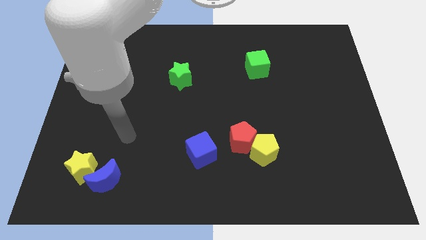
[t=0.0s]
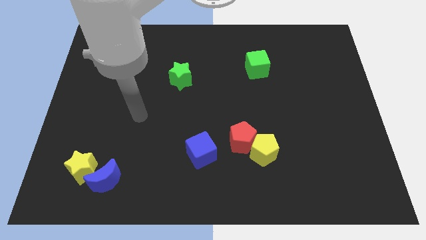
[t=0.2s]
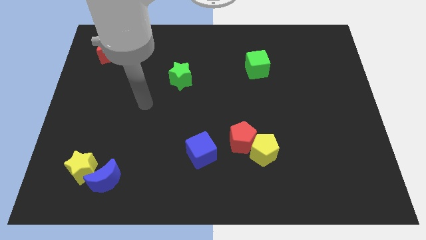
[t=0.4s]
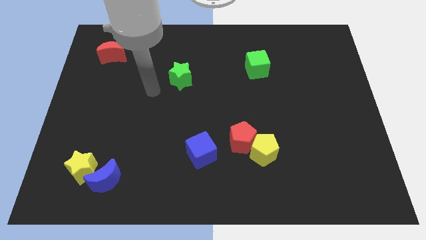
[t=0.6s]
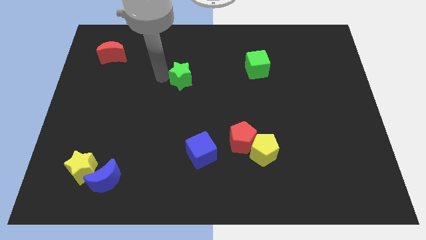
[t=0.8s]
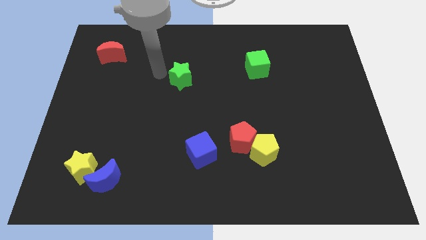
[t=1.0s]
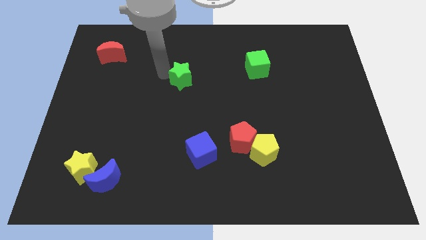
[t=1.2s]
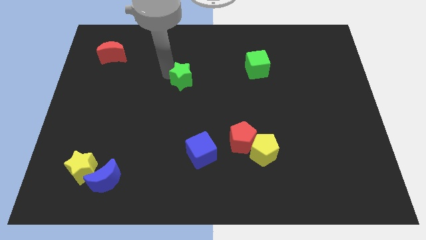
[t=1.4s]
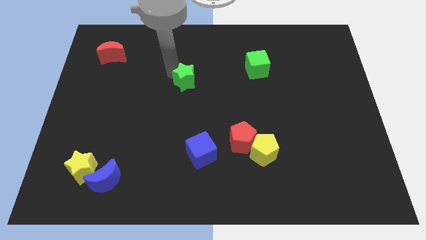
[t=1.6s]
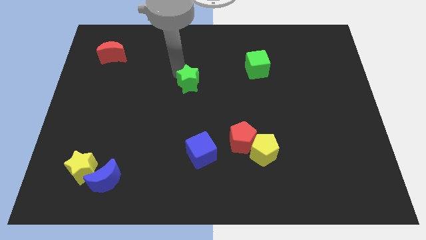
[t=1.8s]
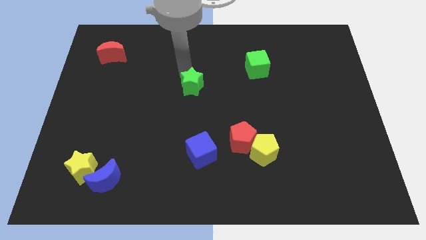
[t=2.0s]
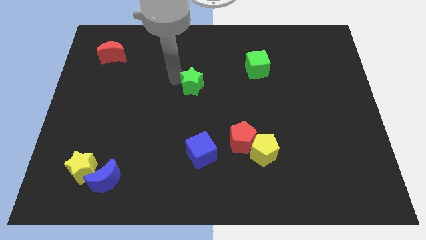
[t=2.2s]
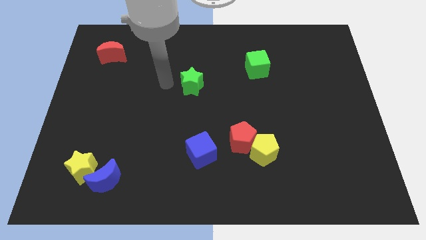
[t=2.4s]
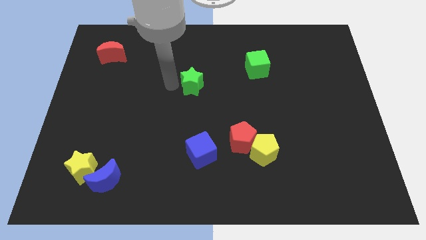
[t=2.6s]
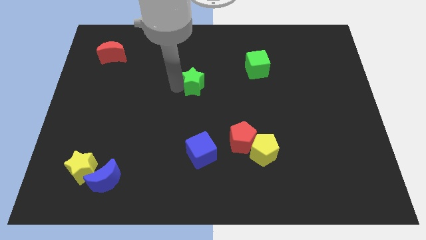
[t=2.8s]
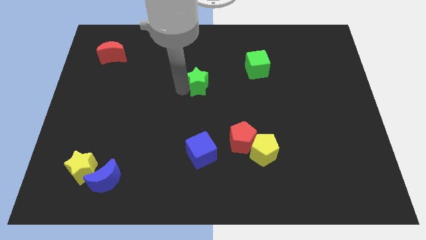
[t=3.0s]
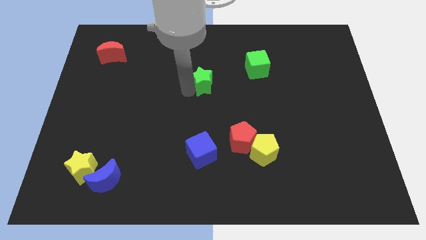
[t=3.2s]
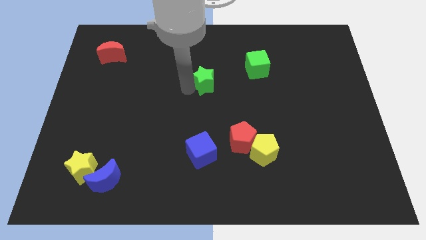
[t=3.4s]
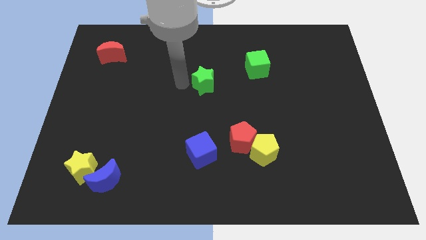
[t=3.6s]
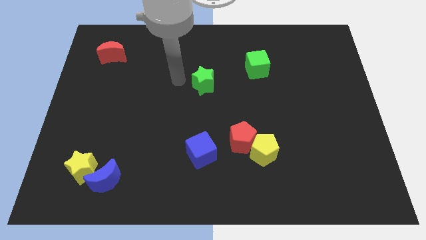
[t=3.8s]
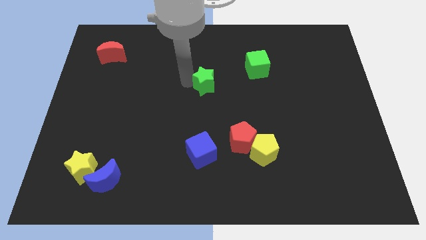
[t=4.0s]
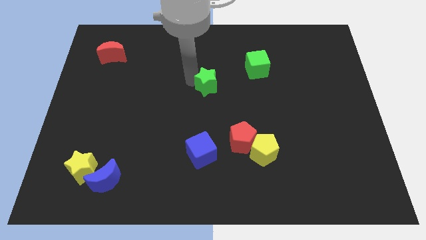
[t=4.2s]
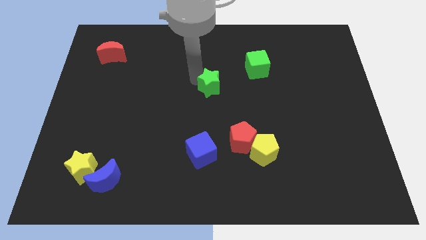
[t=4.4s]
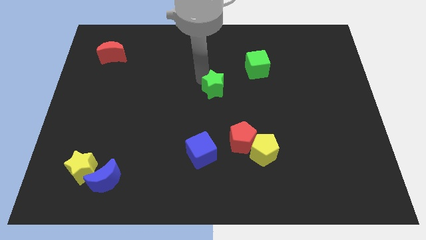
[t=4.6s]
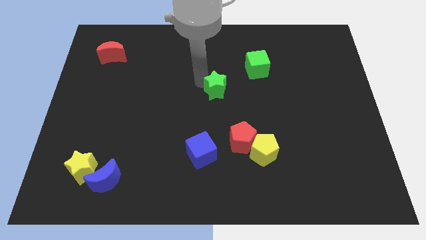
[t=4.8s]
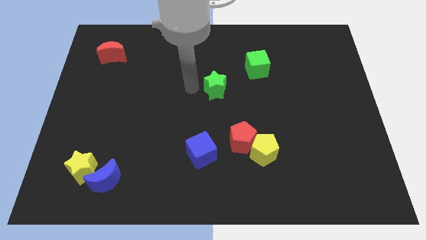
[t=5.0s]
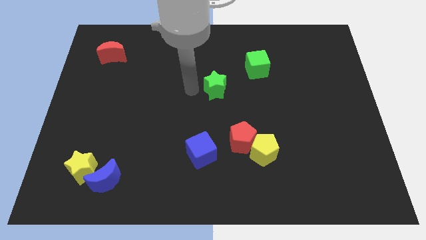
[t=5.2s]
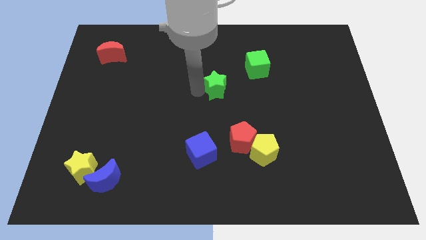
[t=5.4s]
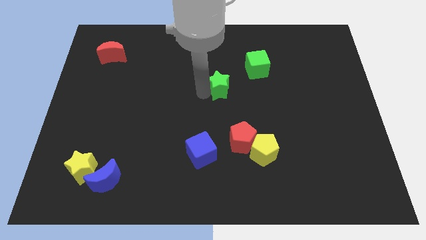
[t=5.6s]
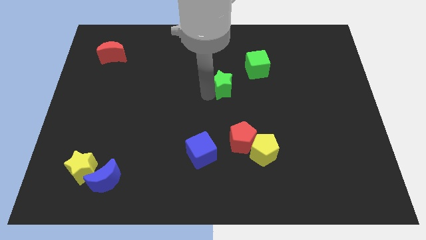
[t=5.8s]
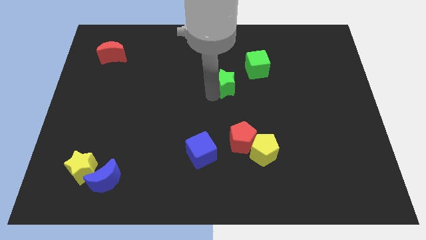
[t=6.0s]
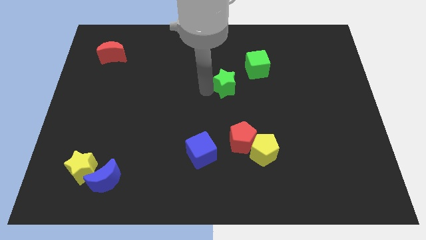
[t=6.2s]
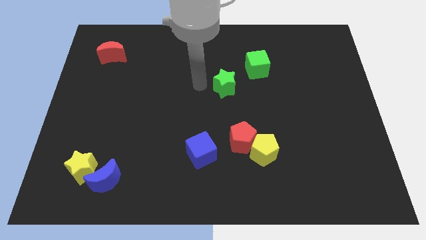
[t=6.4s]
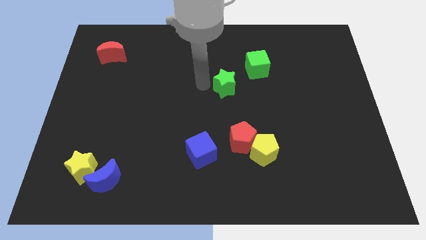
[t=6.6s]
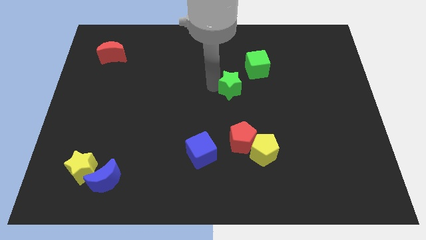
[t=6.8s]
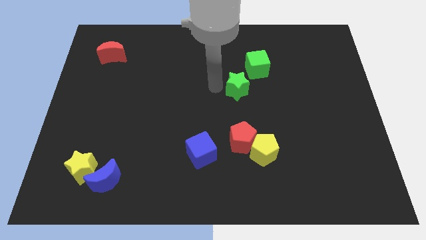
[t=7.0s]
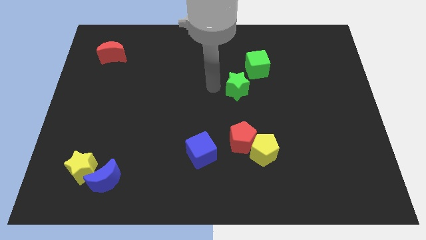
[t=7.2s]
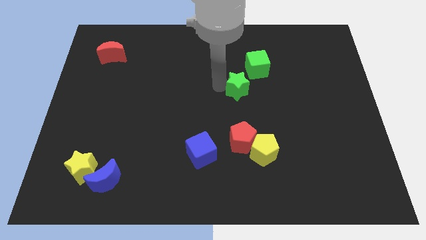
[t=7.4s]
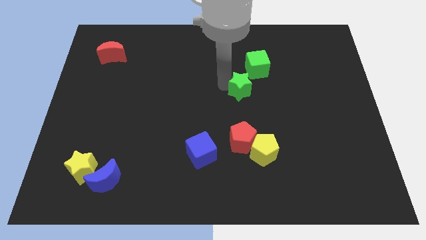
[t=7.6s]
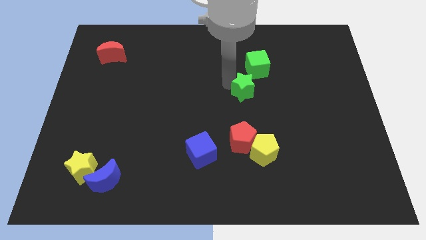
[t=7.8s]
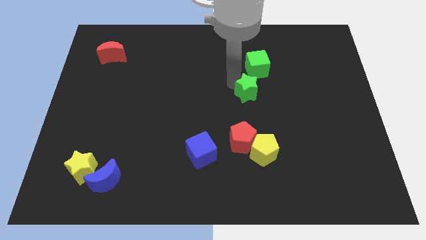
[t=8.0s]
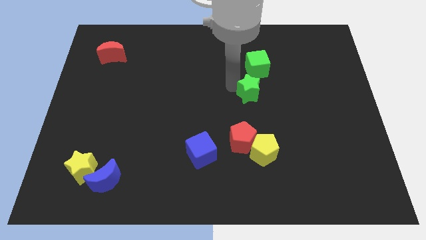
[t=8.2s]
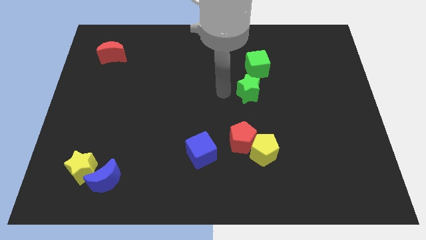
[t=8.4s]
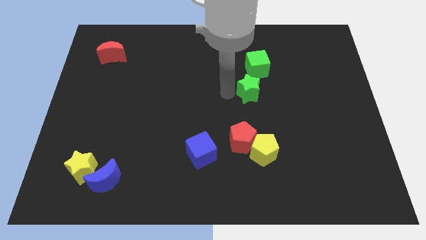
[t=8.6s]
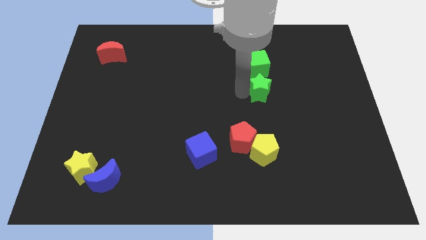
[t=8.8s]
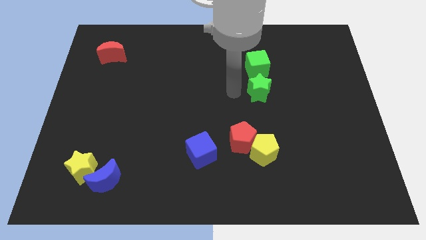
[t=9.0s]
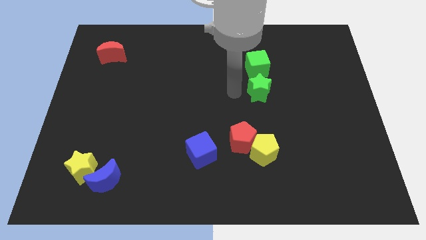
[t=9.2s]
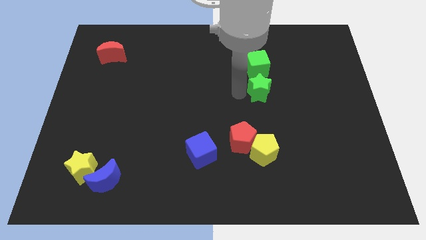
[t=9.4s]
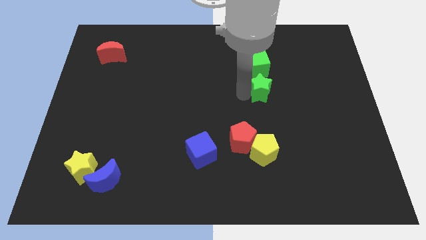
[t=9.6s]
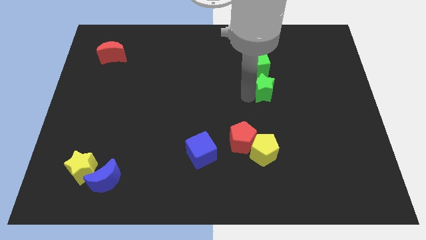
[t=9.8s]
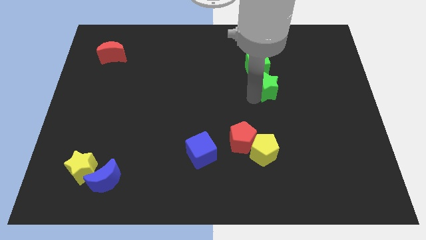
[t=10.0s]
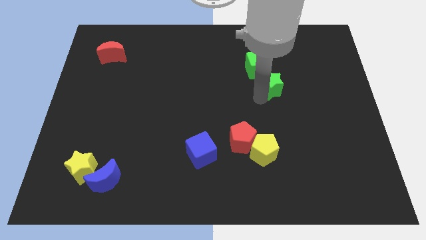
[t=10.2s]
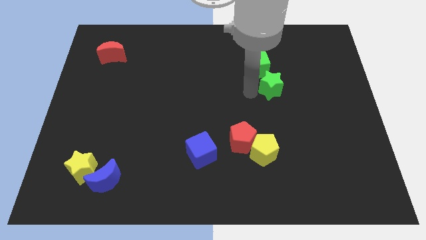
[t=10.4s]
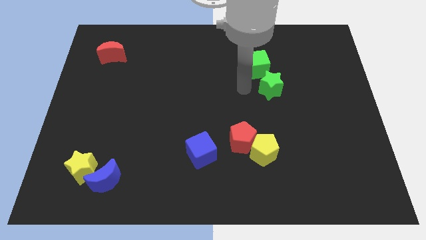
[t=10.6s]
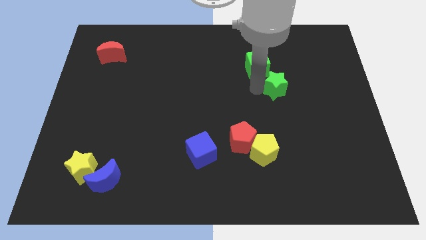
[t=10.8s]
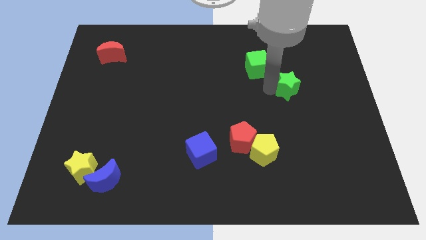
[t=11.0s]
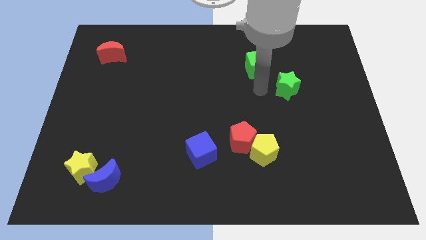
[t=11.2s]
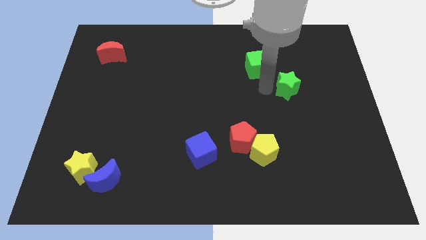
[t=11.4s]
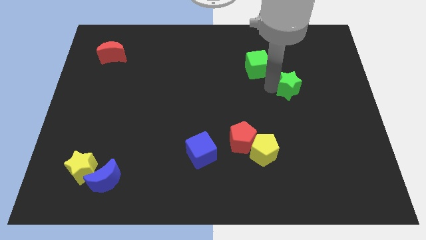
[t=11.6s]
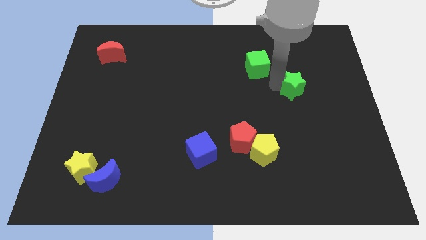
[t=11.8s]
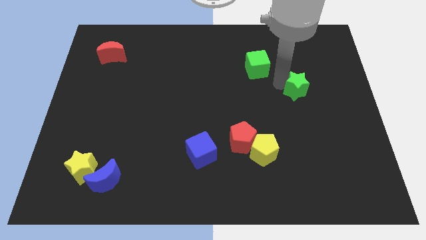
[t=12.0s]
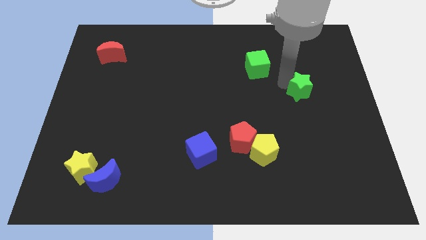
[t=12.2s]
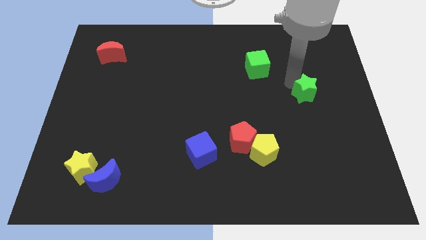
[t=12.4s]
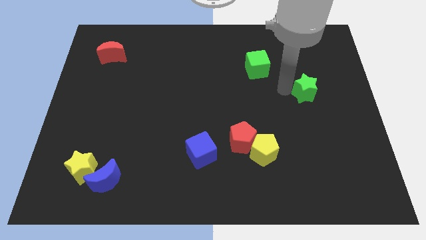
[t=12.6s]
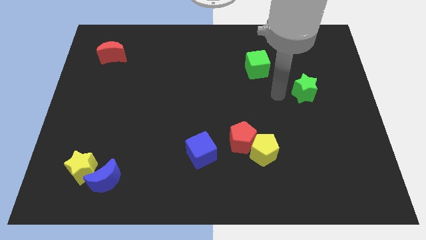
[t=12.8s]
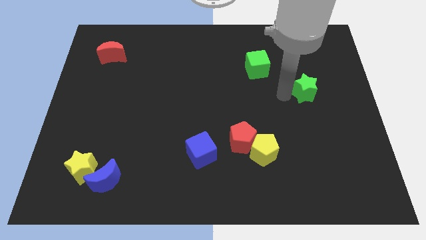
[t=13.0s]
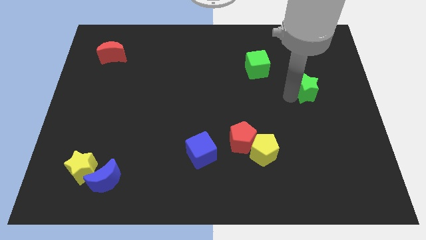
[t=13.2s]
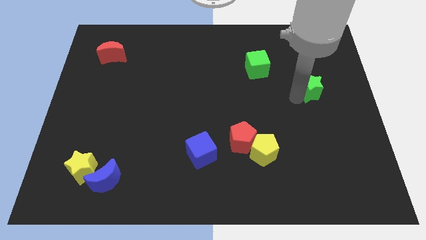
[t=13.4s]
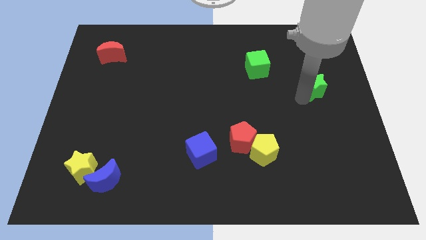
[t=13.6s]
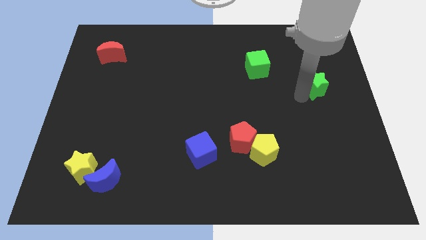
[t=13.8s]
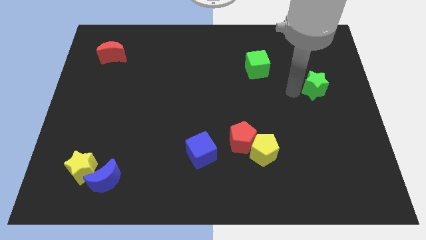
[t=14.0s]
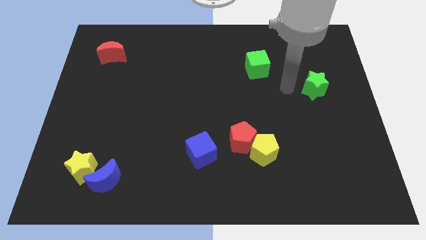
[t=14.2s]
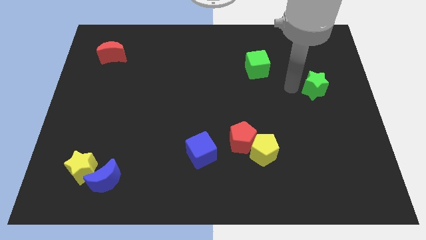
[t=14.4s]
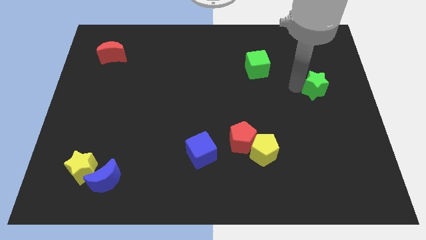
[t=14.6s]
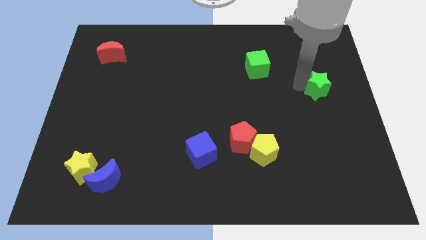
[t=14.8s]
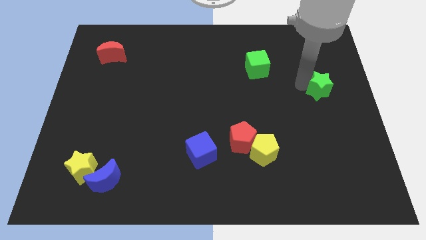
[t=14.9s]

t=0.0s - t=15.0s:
push the green star to the center right
